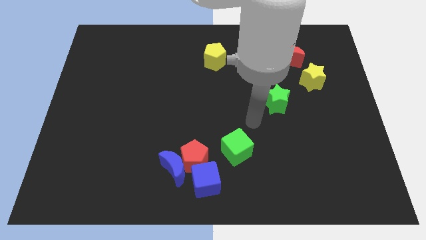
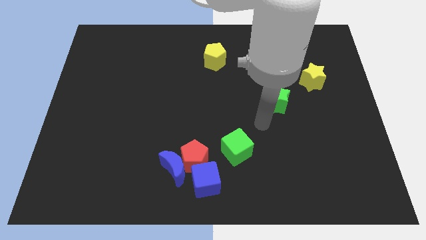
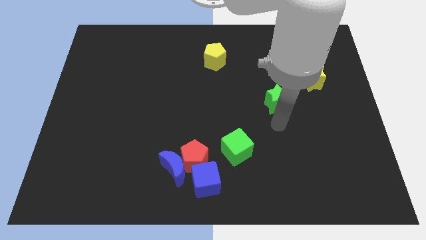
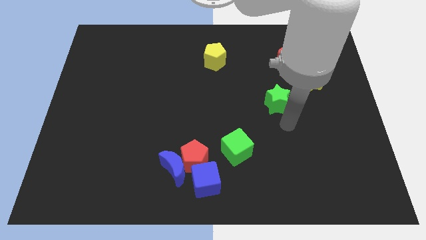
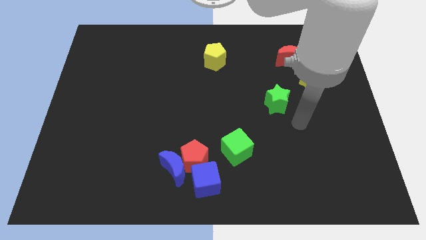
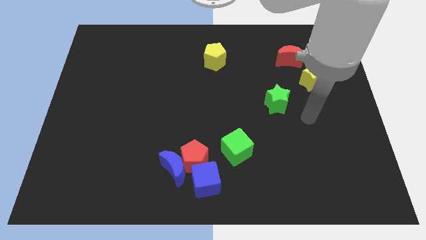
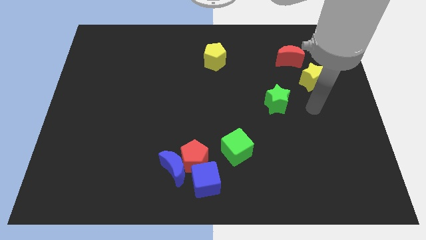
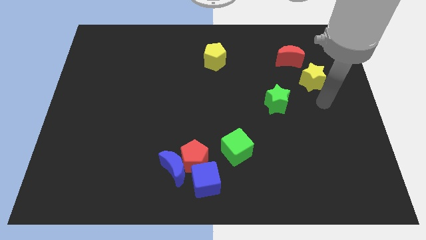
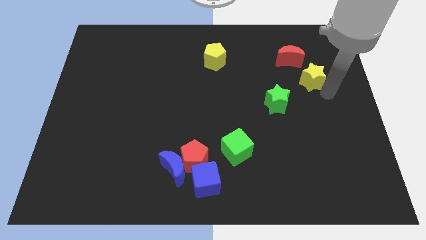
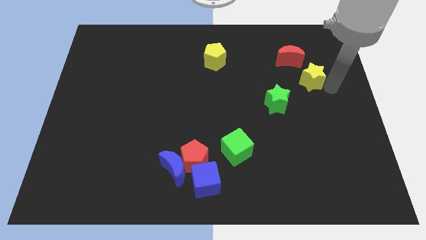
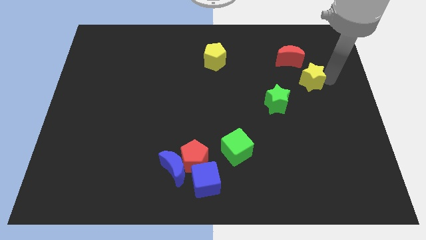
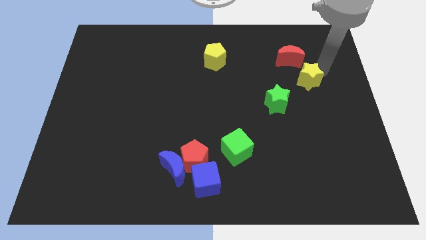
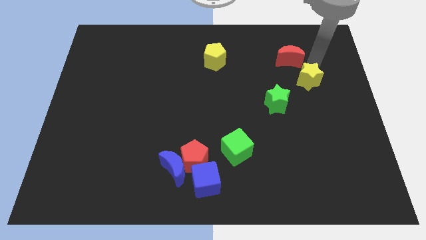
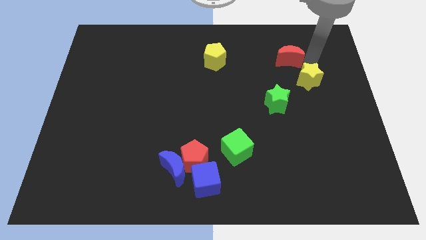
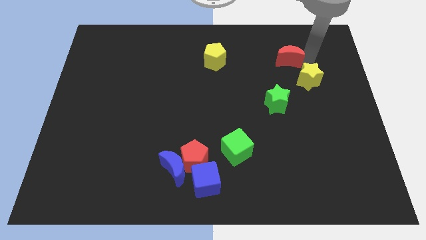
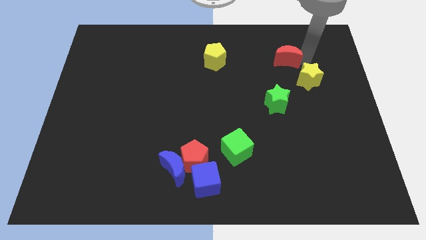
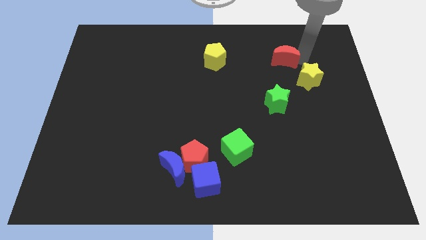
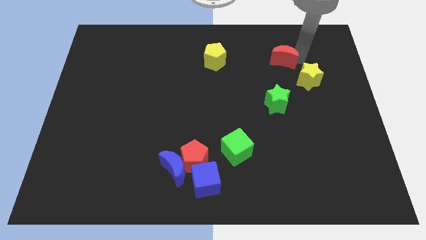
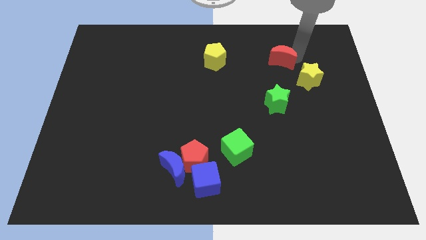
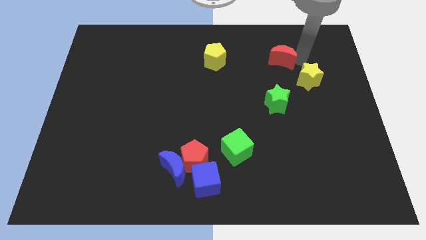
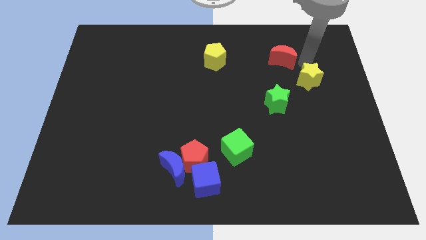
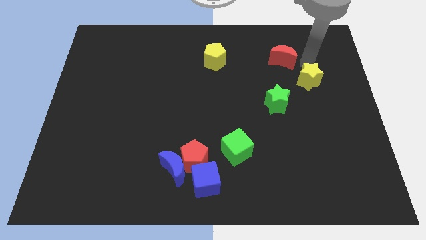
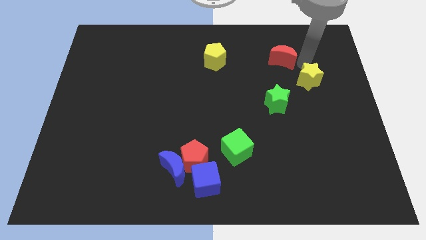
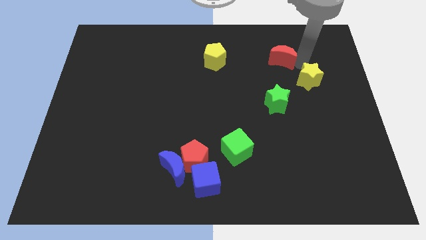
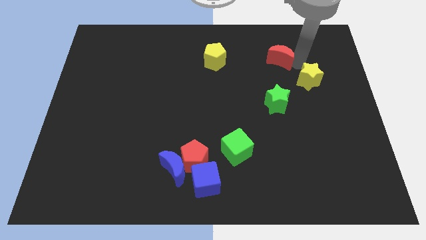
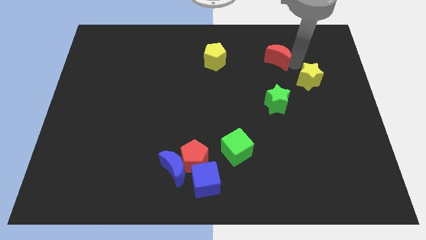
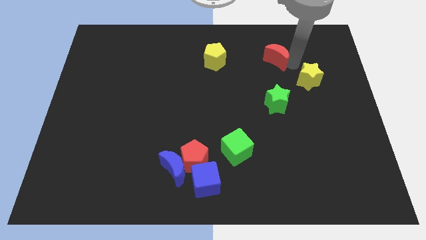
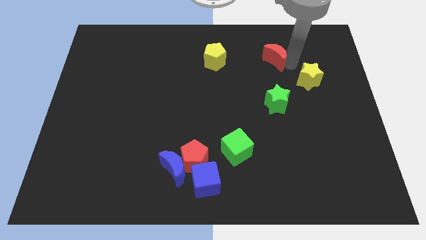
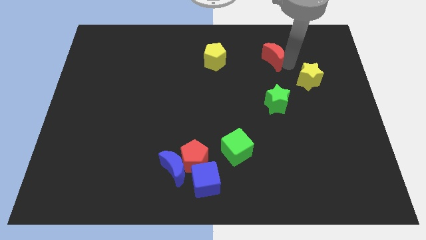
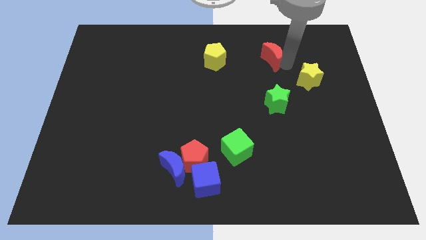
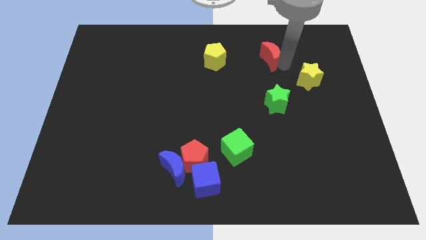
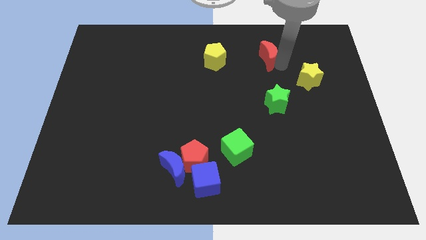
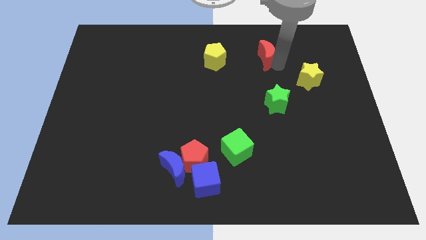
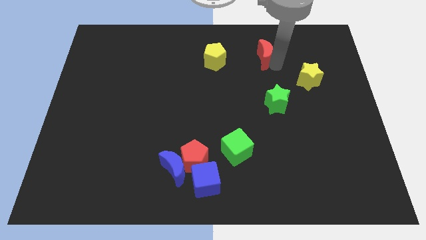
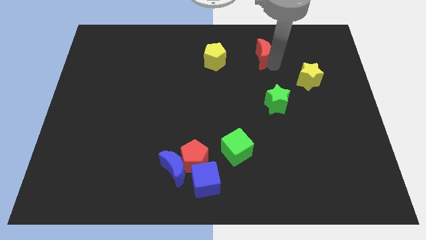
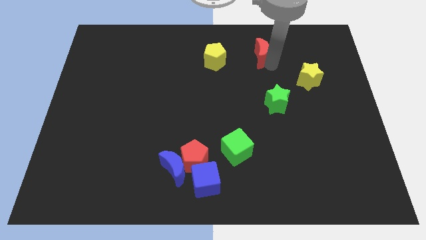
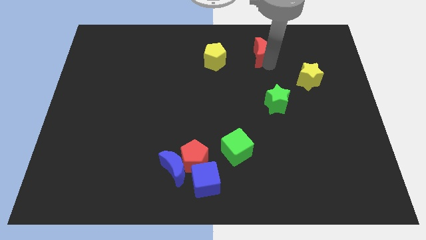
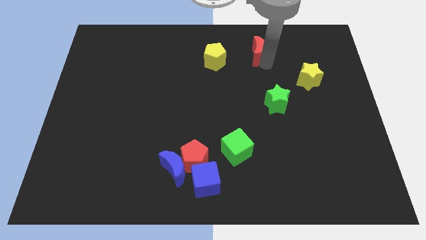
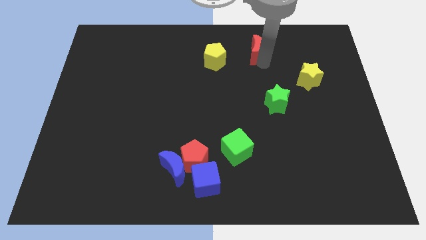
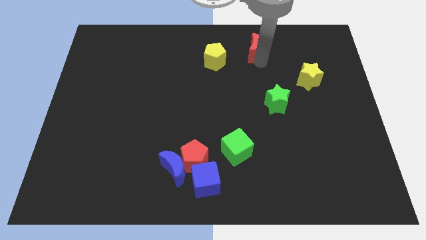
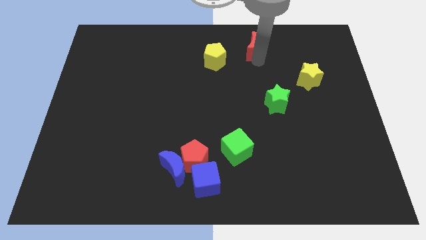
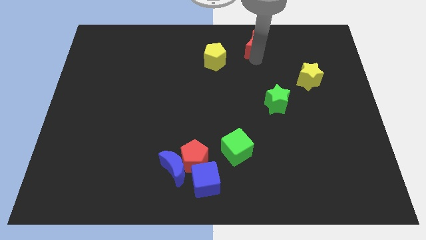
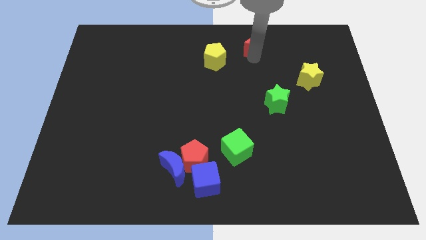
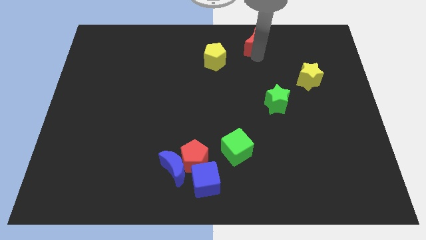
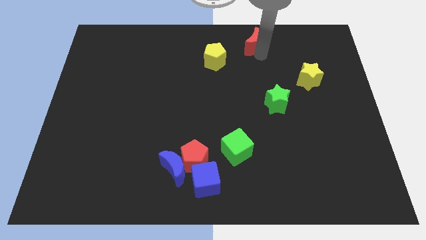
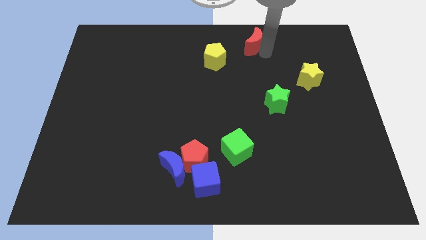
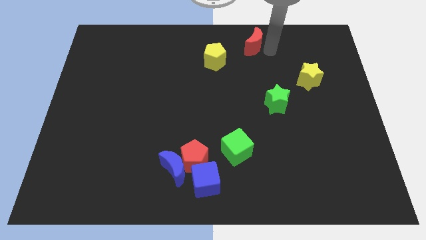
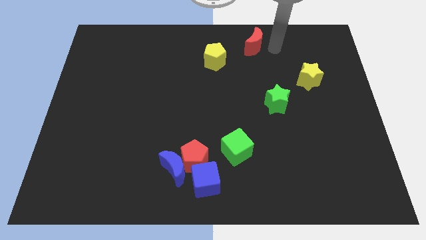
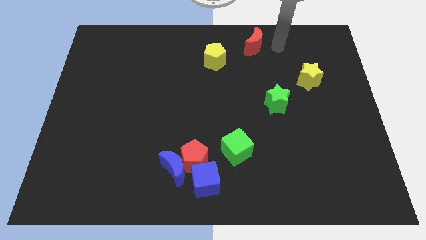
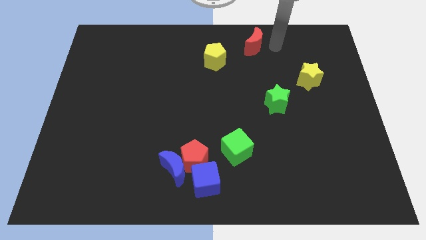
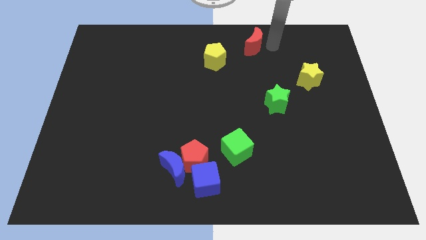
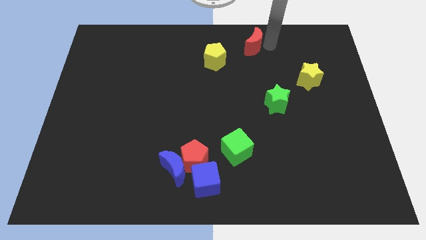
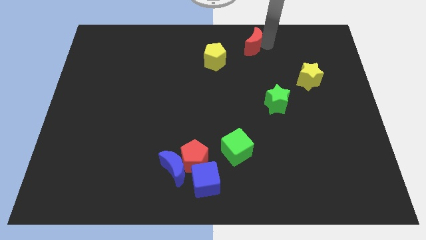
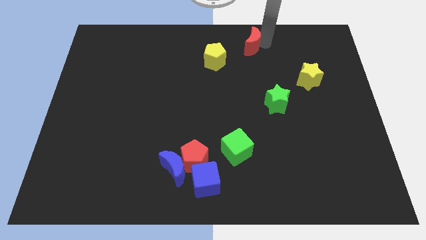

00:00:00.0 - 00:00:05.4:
move the red moon to the top side

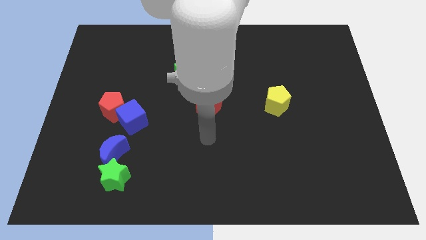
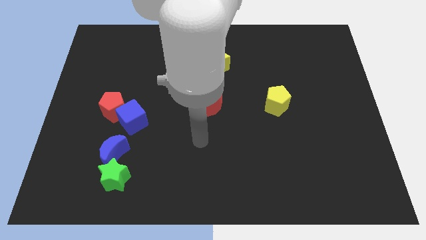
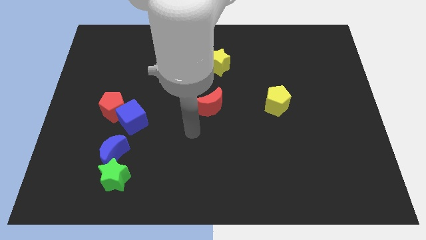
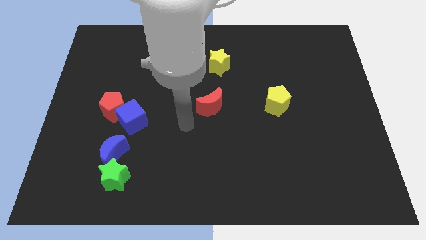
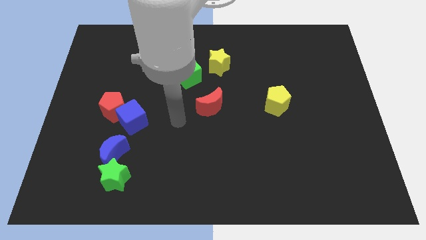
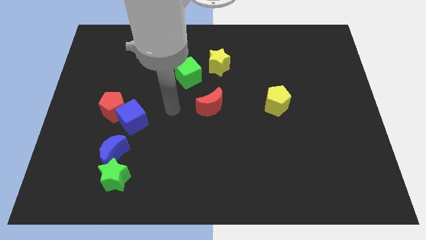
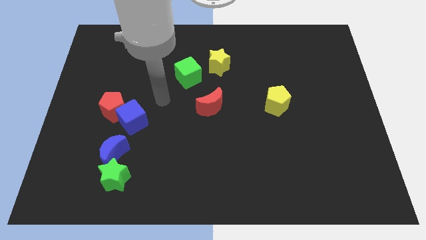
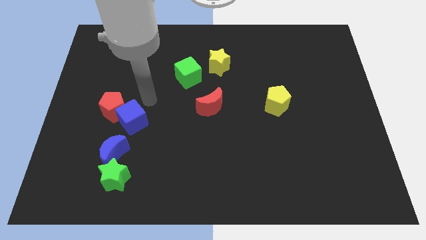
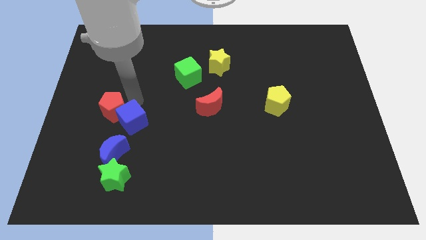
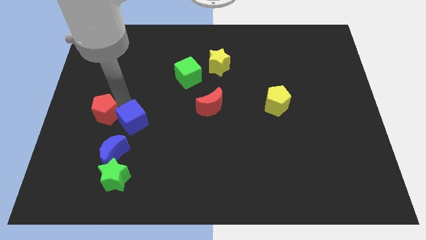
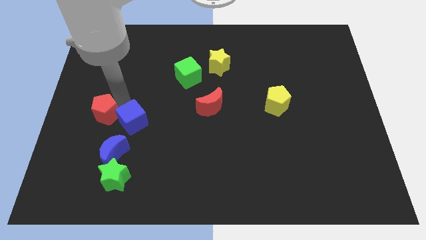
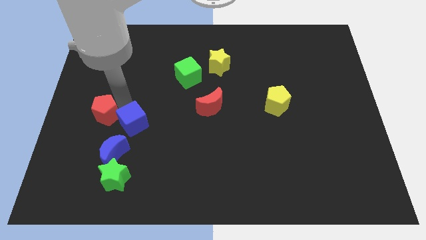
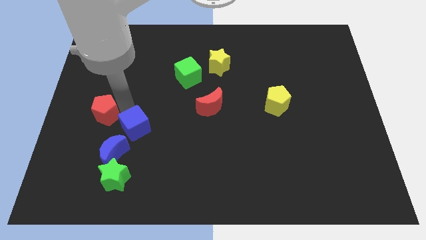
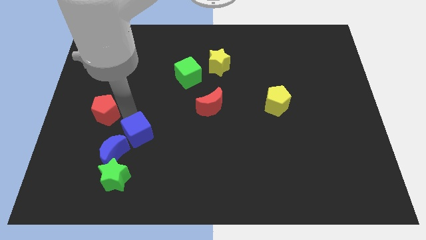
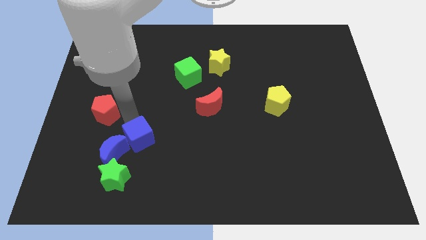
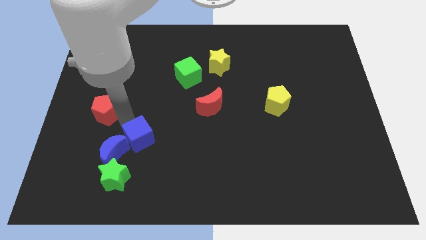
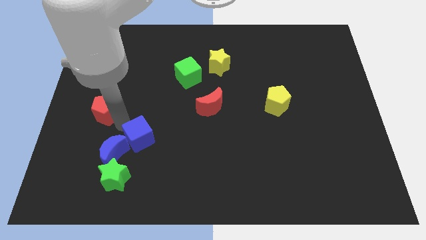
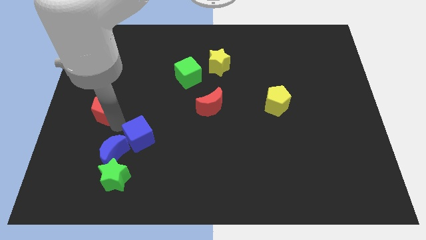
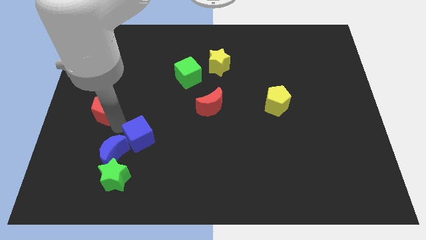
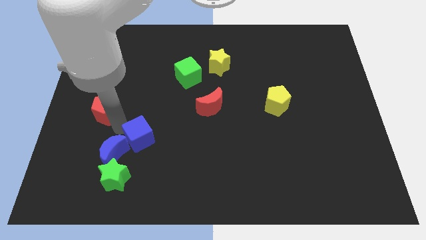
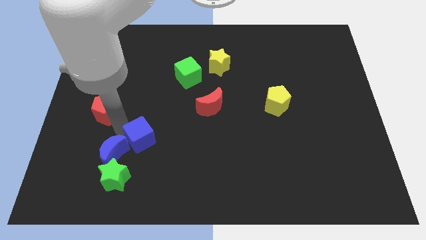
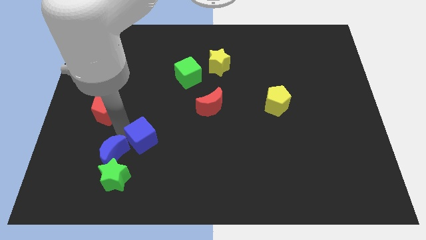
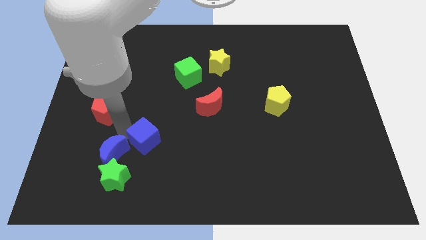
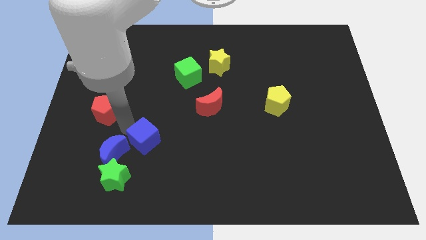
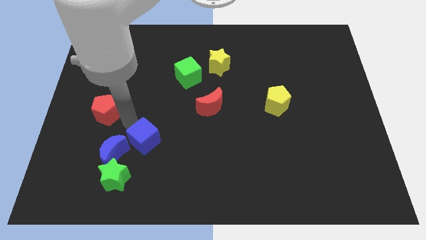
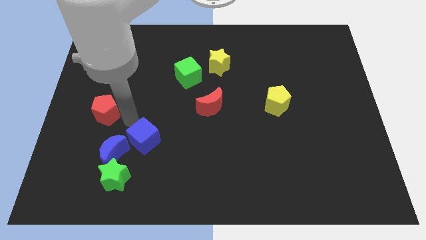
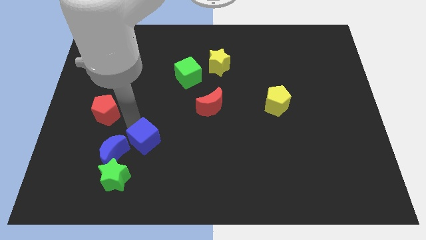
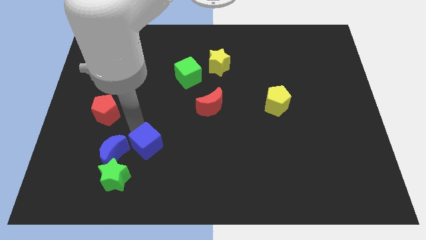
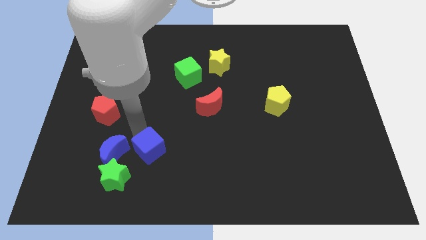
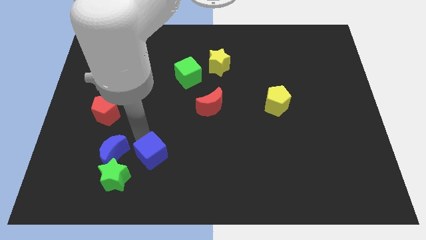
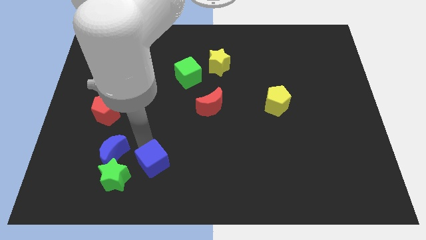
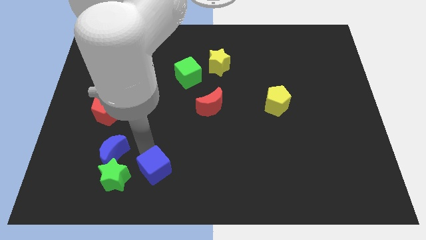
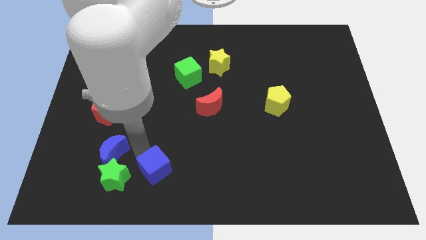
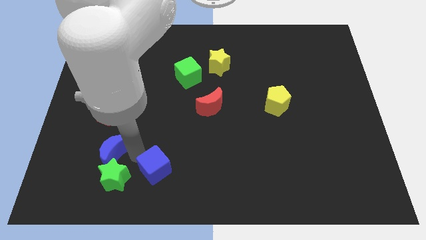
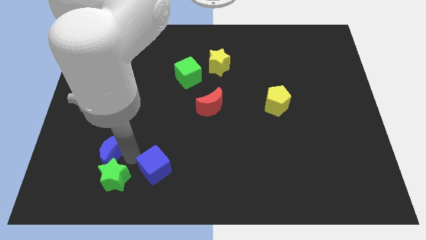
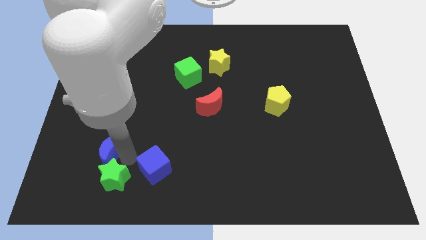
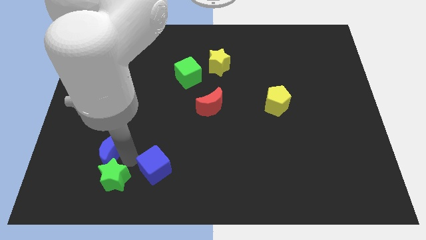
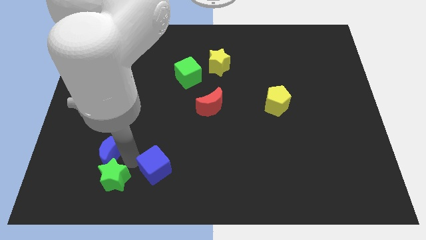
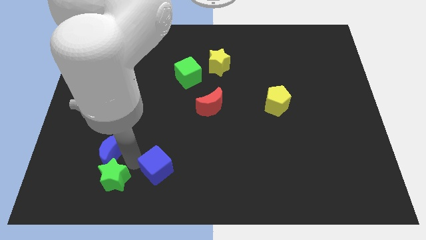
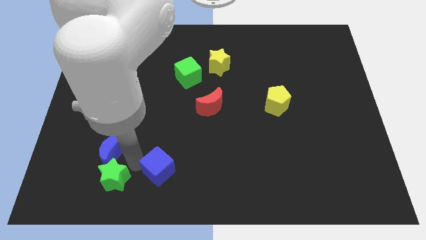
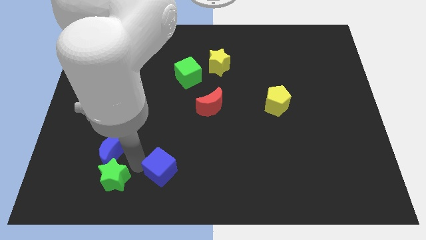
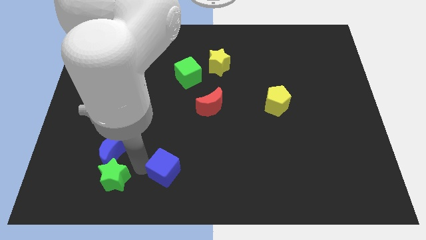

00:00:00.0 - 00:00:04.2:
push the blue cube to the bottom
